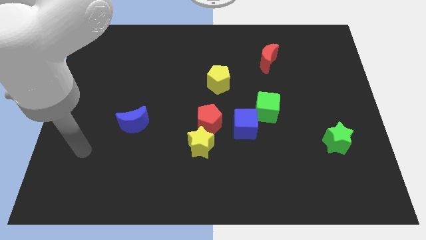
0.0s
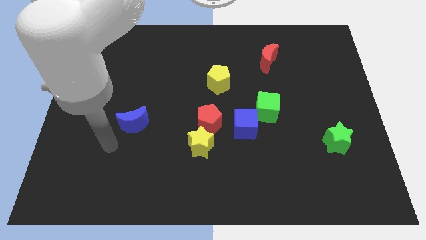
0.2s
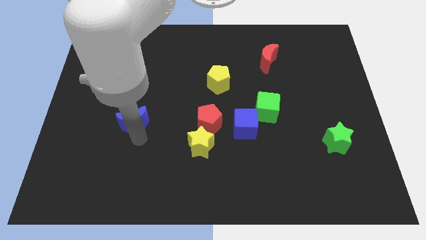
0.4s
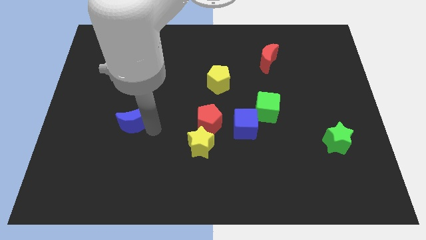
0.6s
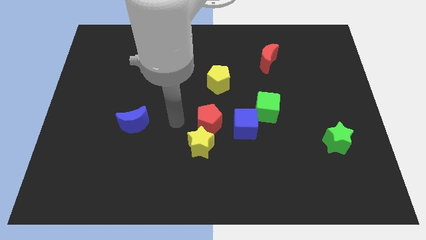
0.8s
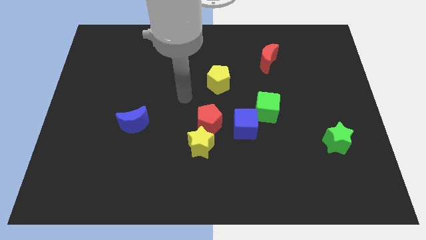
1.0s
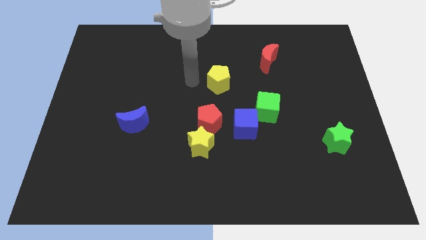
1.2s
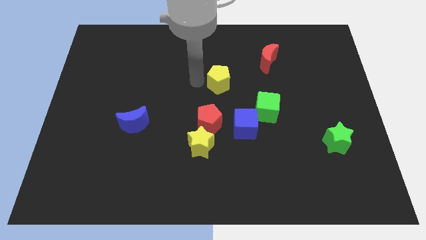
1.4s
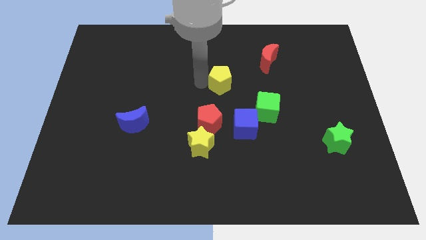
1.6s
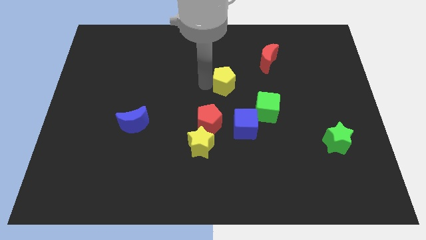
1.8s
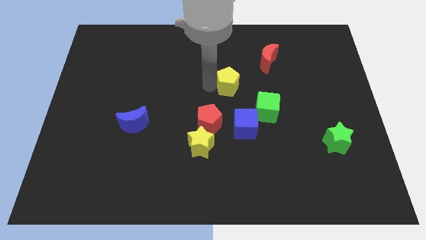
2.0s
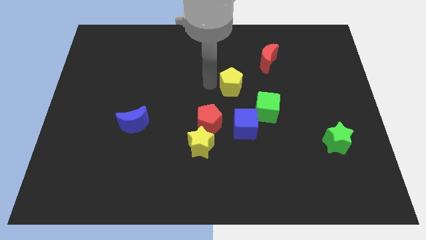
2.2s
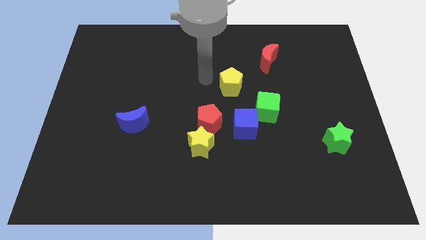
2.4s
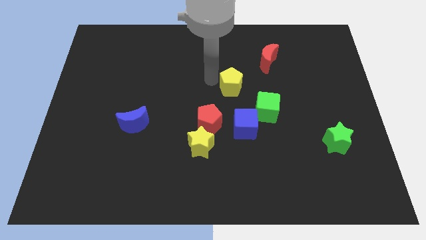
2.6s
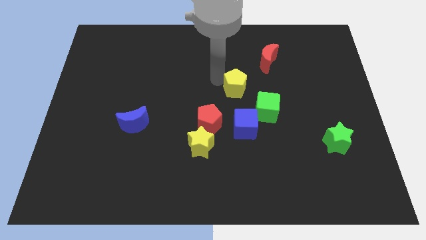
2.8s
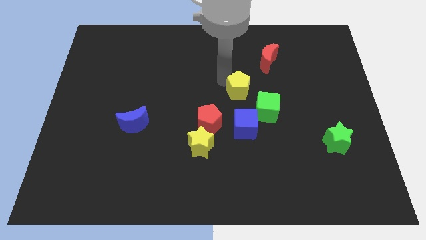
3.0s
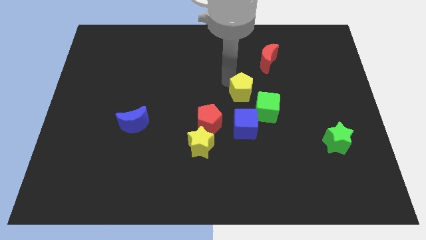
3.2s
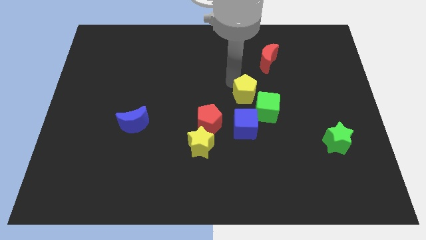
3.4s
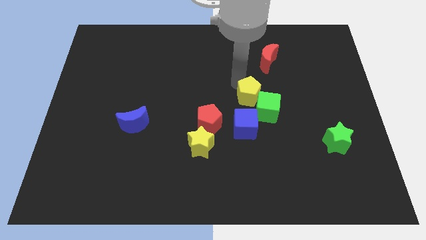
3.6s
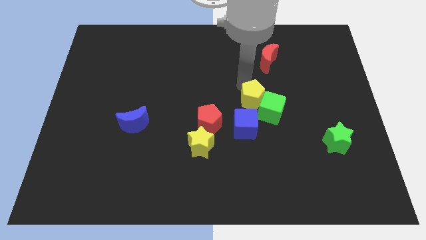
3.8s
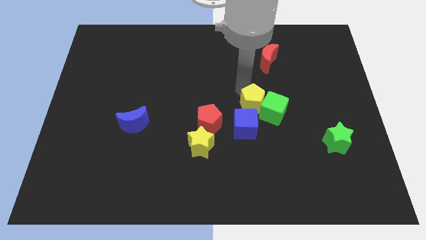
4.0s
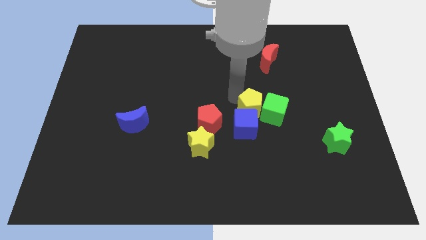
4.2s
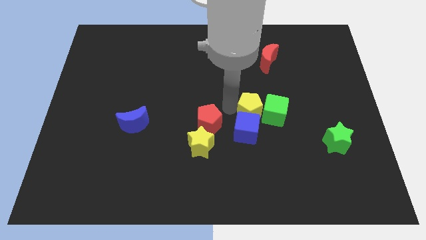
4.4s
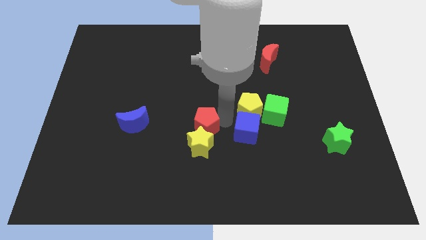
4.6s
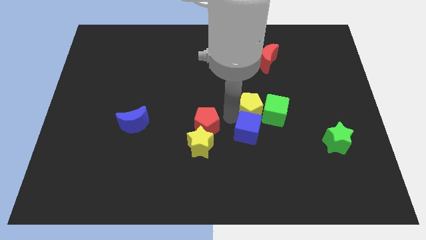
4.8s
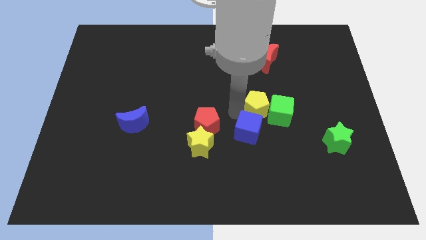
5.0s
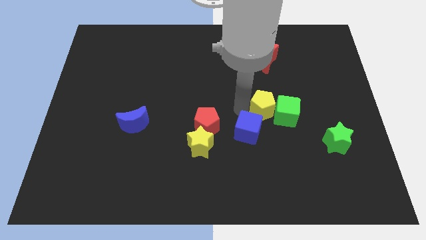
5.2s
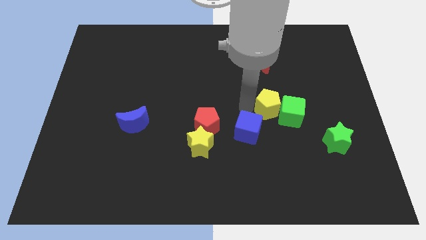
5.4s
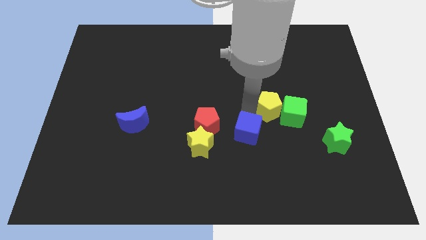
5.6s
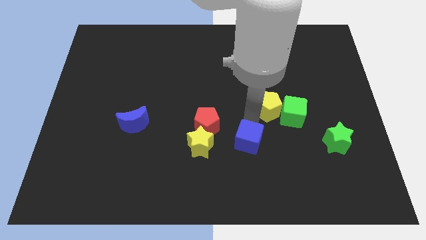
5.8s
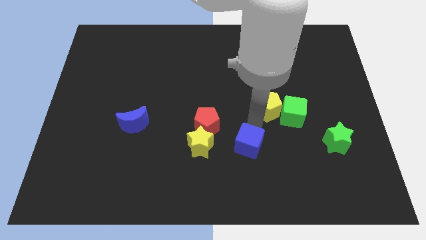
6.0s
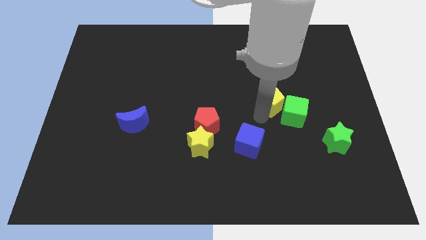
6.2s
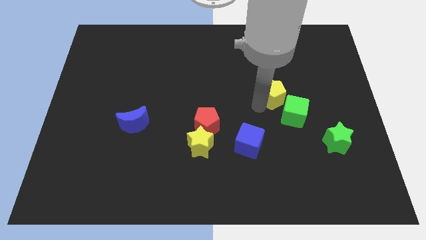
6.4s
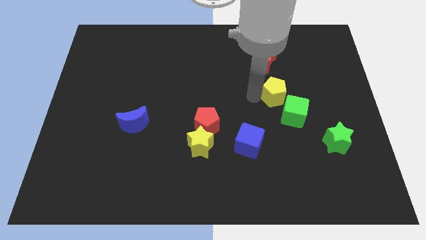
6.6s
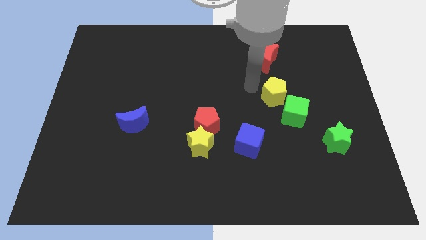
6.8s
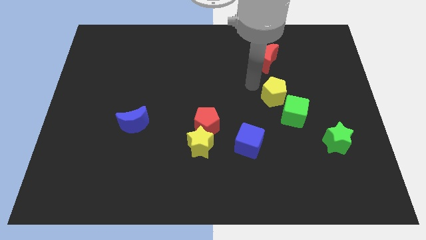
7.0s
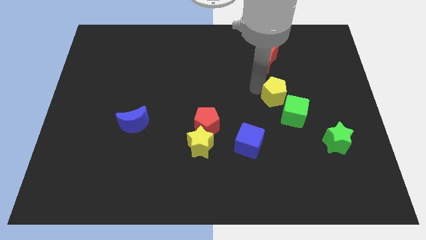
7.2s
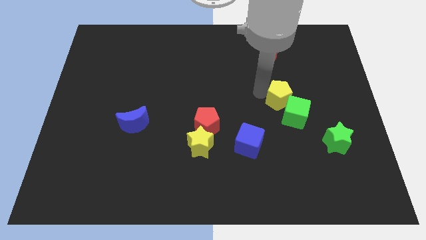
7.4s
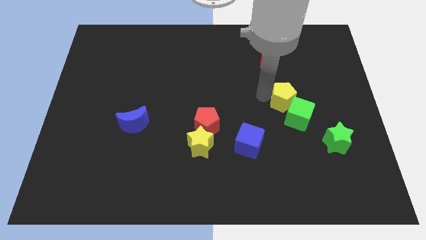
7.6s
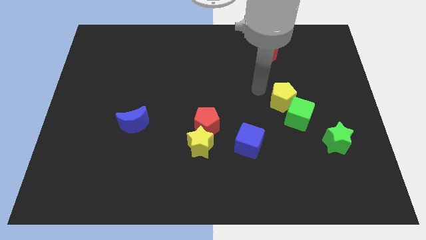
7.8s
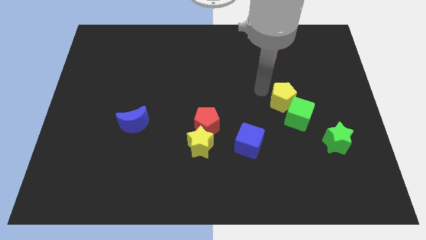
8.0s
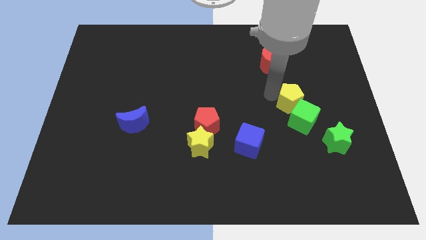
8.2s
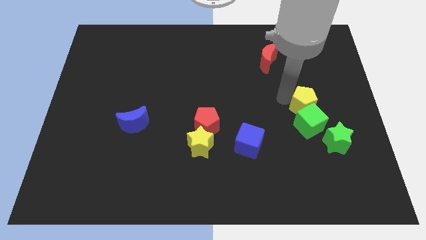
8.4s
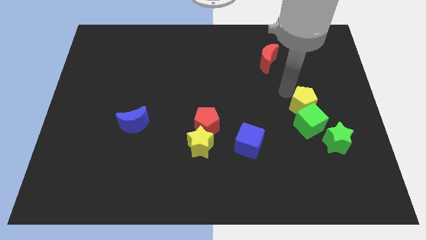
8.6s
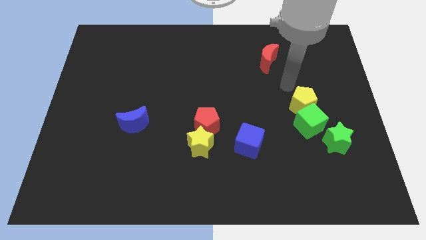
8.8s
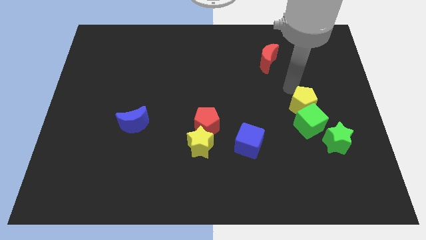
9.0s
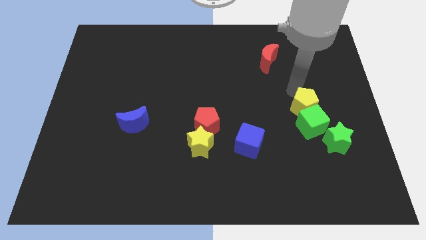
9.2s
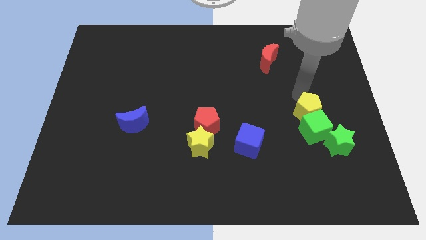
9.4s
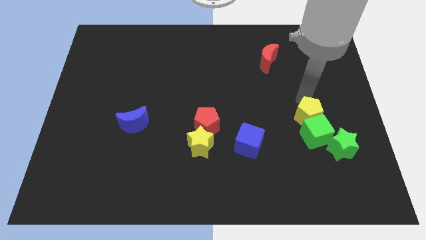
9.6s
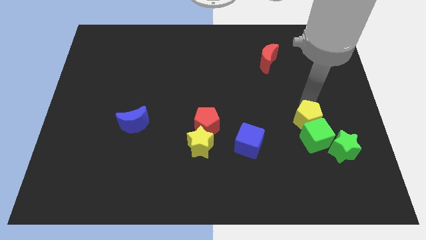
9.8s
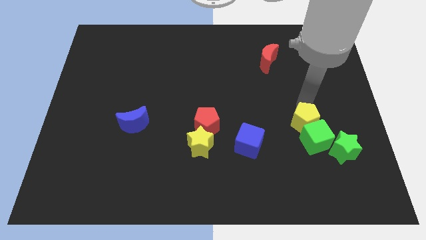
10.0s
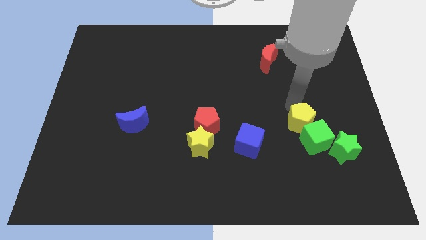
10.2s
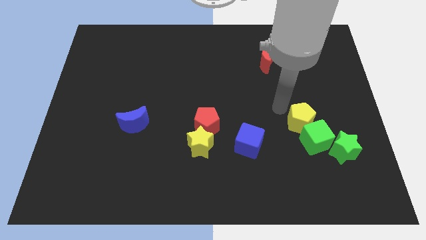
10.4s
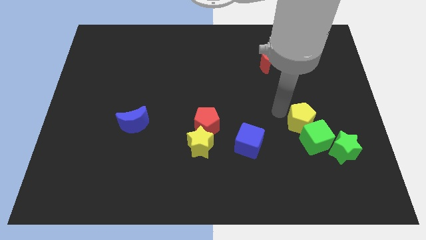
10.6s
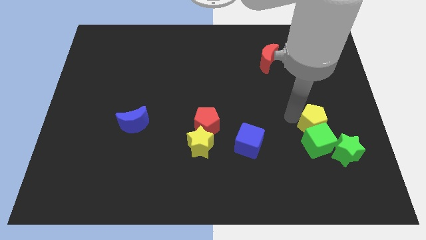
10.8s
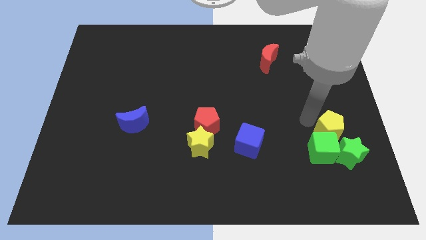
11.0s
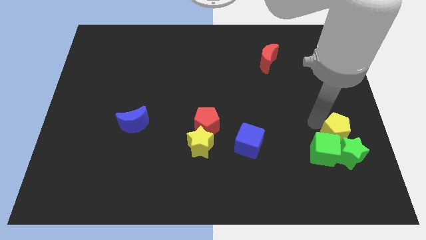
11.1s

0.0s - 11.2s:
move the yellow pentagon close to the green star

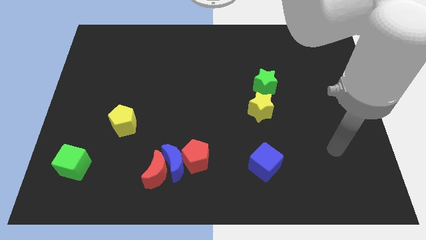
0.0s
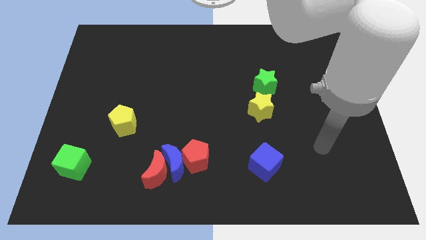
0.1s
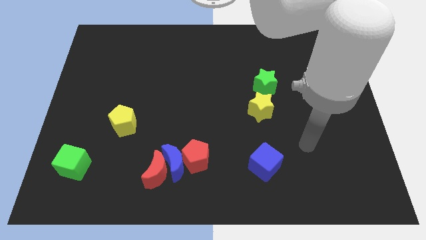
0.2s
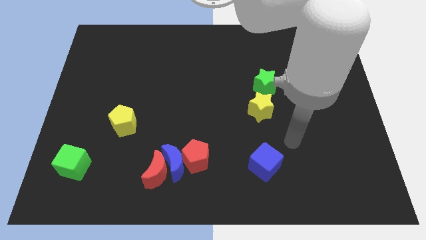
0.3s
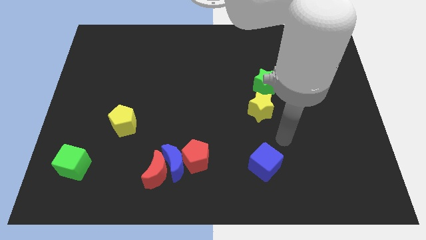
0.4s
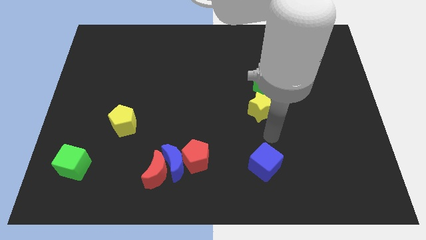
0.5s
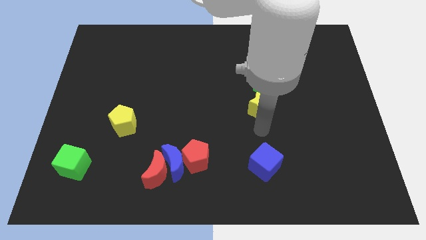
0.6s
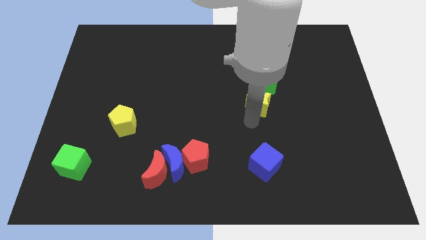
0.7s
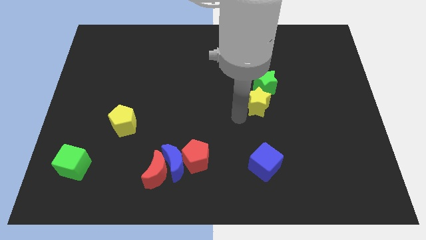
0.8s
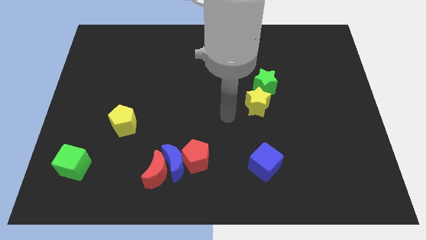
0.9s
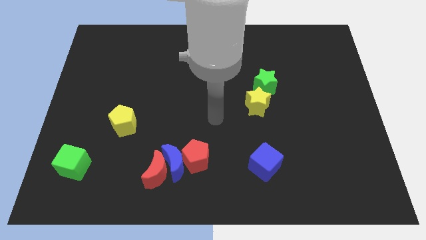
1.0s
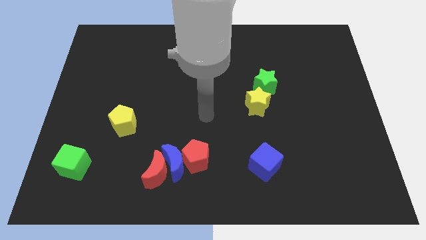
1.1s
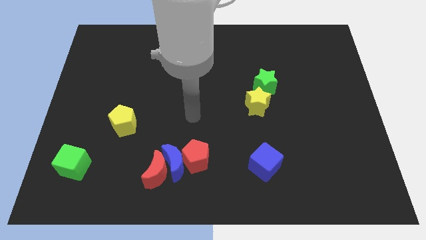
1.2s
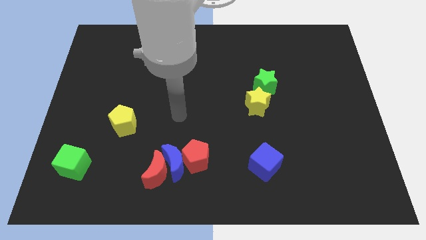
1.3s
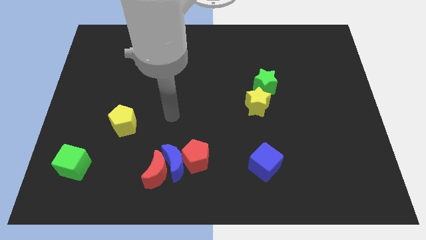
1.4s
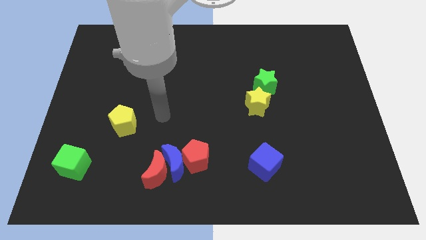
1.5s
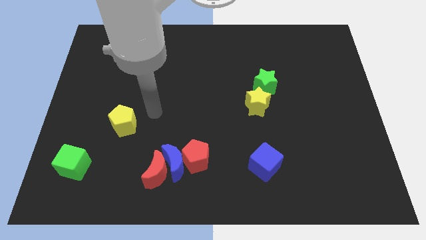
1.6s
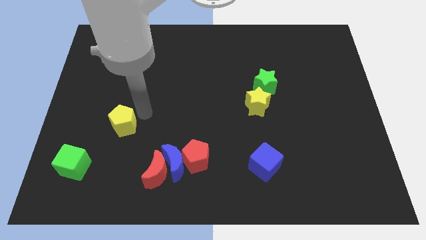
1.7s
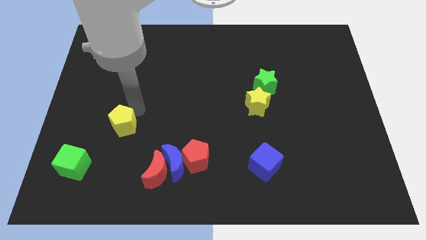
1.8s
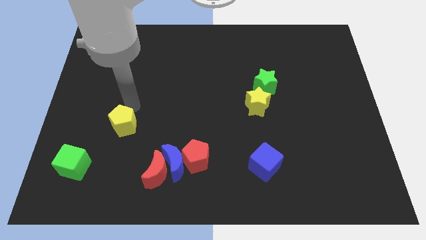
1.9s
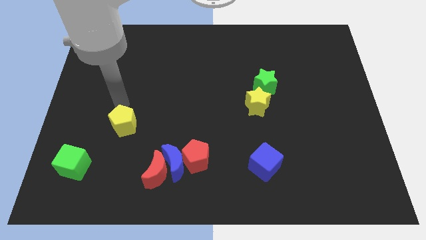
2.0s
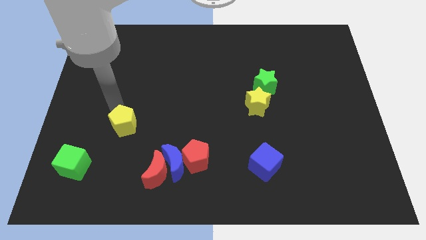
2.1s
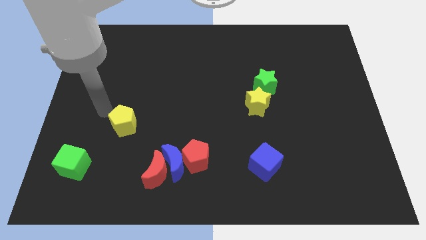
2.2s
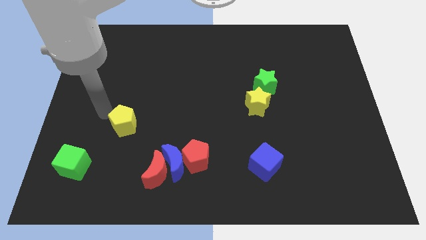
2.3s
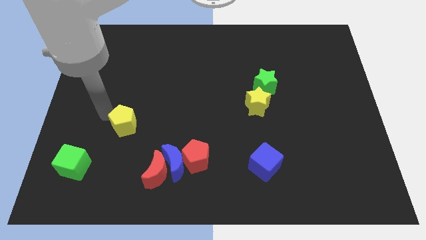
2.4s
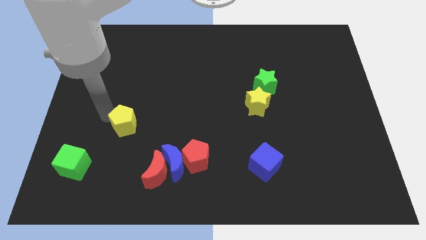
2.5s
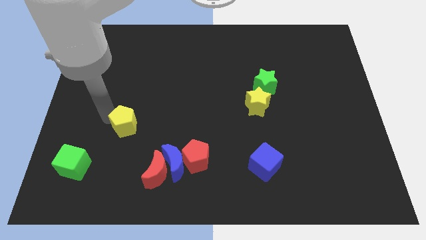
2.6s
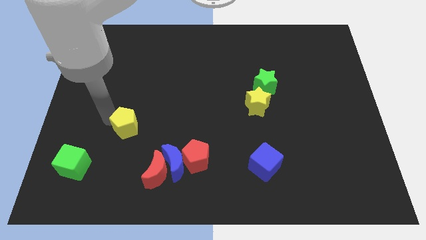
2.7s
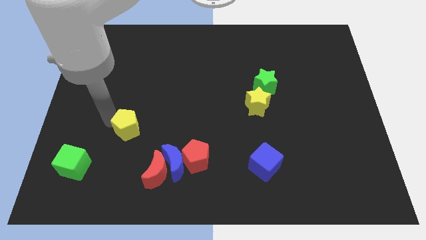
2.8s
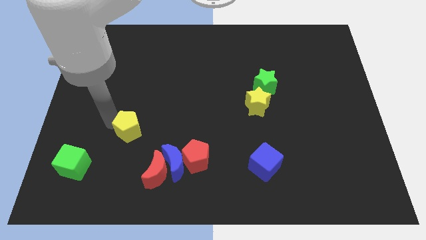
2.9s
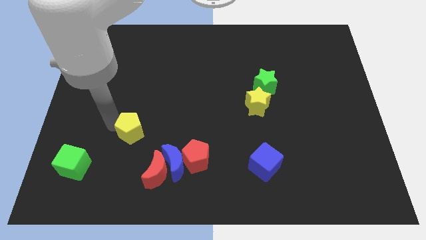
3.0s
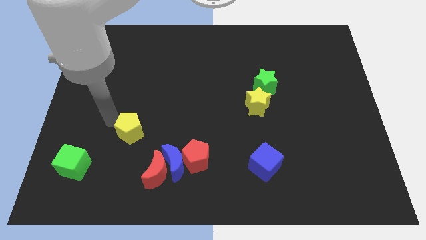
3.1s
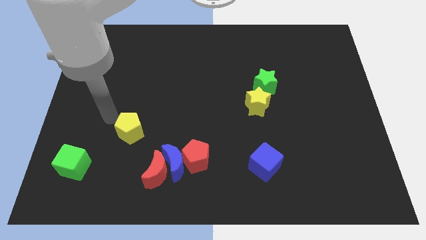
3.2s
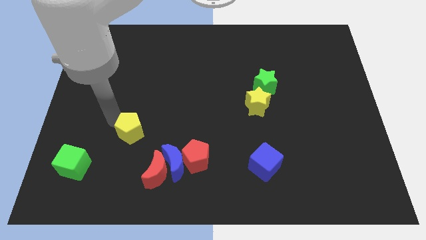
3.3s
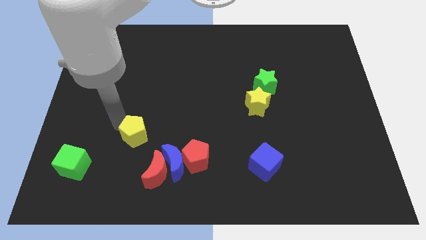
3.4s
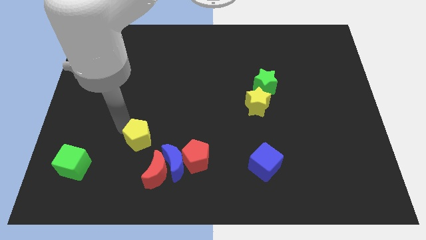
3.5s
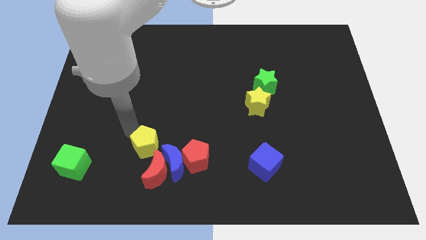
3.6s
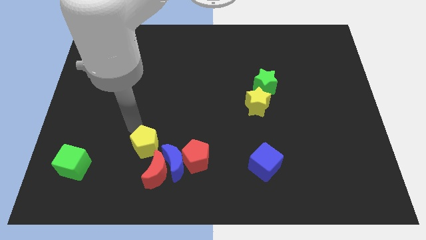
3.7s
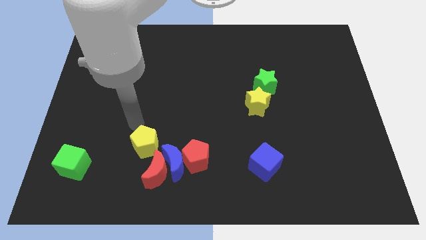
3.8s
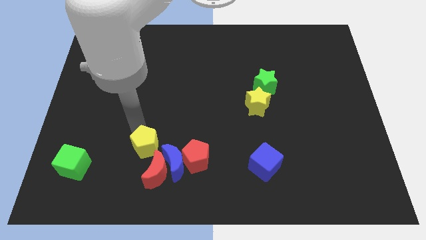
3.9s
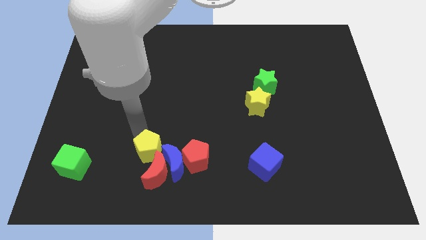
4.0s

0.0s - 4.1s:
move the yellow pentagon to the red moon
